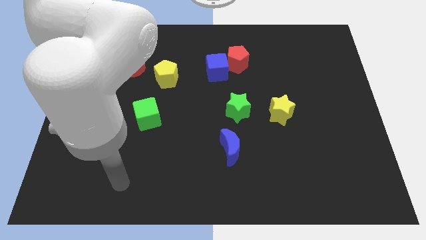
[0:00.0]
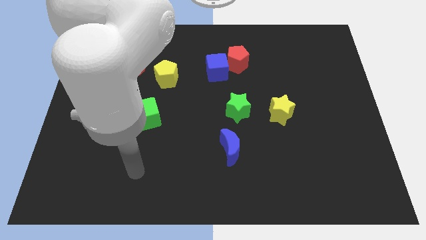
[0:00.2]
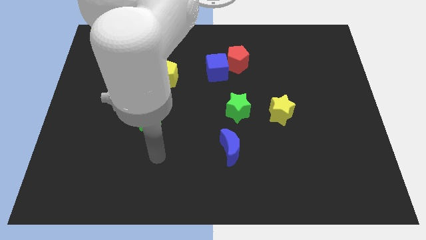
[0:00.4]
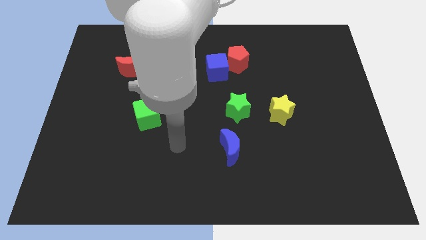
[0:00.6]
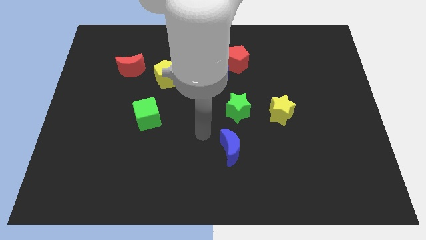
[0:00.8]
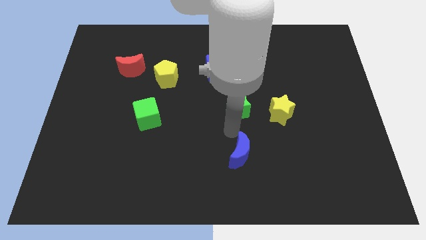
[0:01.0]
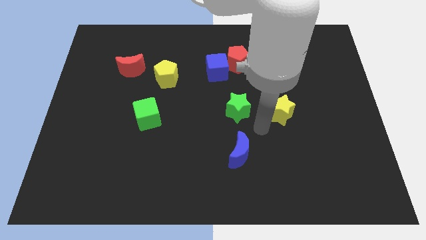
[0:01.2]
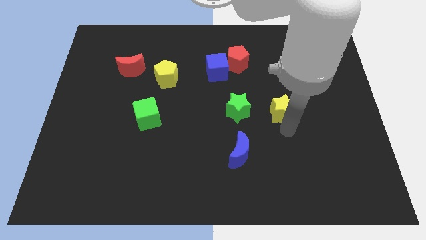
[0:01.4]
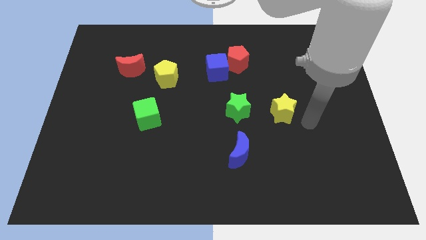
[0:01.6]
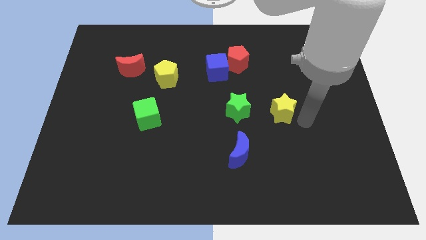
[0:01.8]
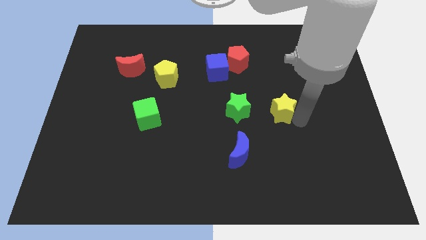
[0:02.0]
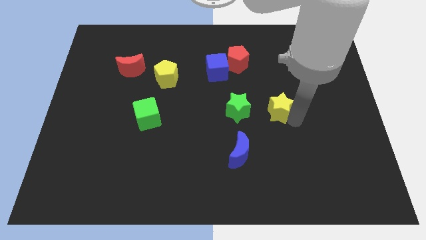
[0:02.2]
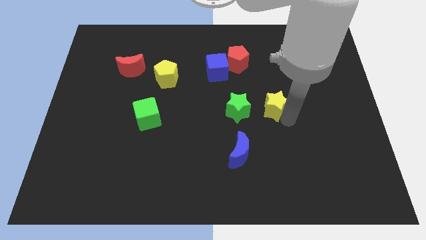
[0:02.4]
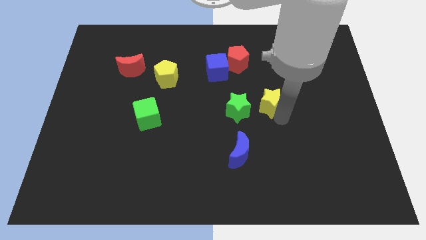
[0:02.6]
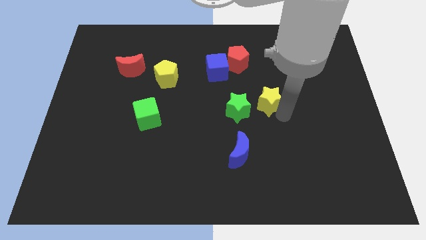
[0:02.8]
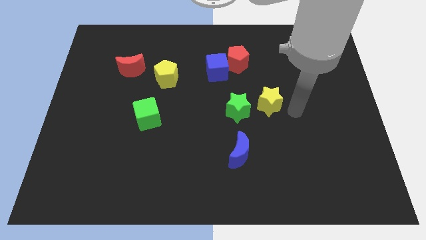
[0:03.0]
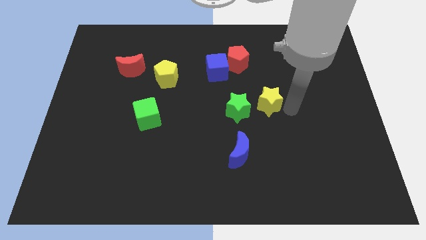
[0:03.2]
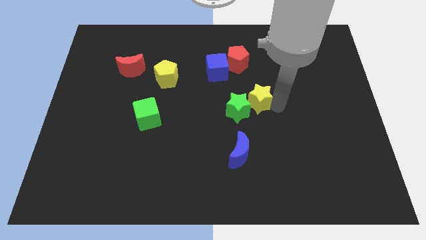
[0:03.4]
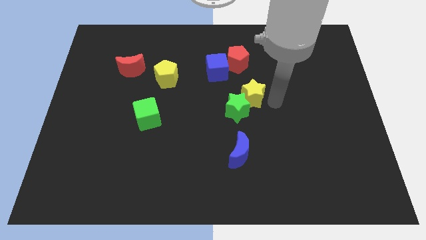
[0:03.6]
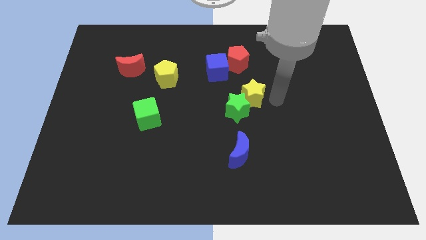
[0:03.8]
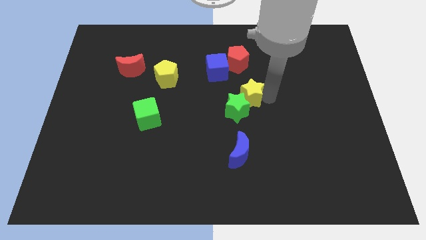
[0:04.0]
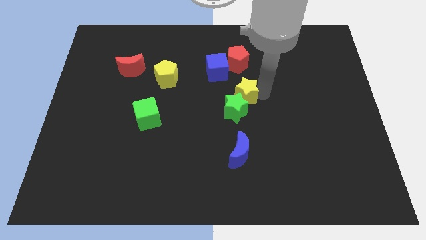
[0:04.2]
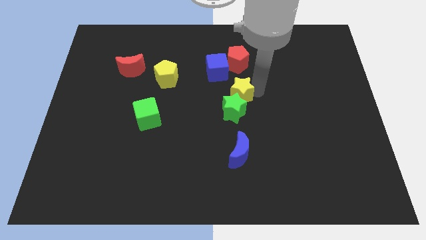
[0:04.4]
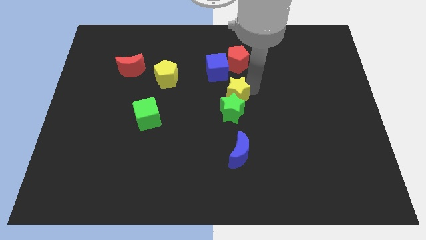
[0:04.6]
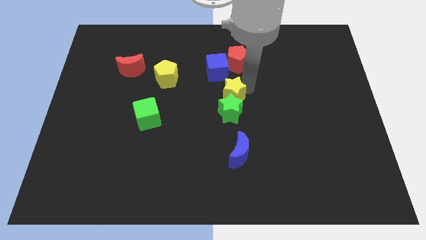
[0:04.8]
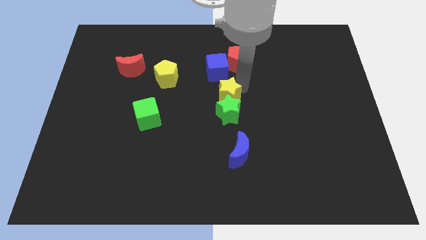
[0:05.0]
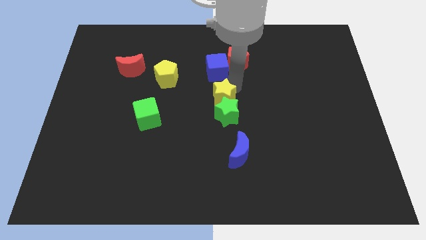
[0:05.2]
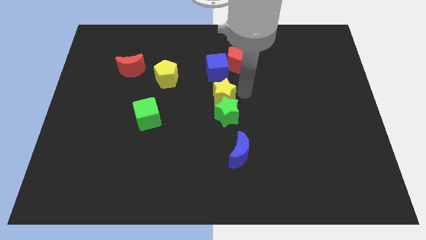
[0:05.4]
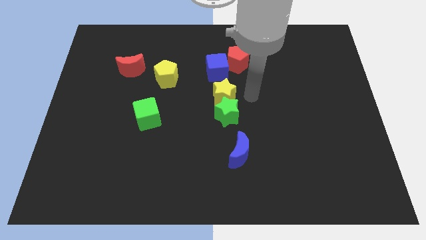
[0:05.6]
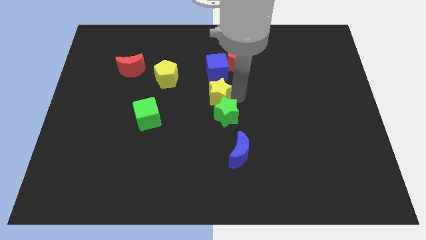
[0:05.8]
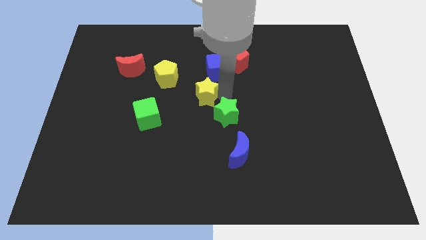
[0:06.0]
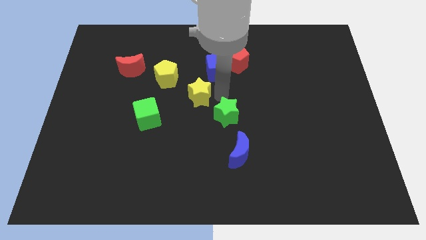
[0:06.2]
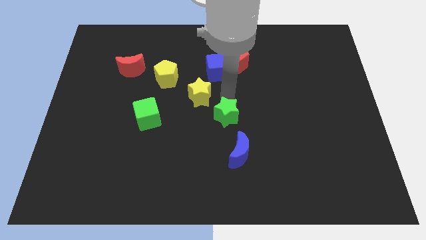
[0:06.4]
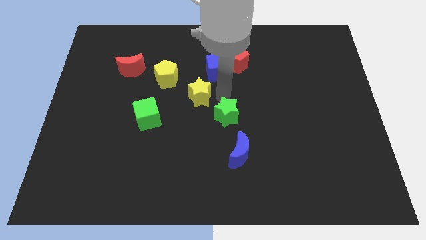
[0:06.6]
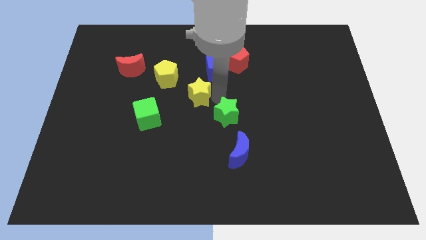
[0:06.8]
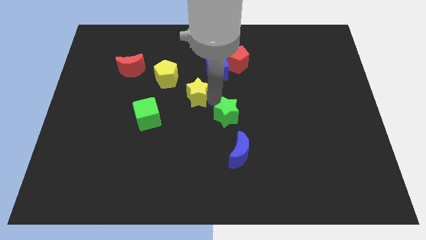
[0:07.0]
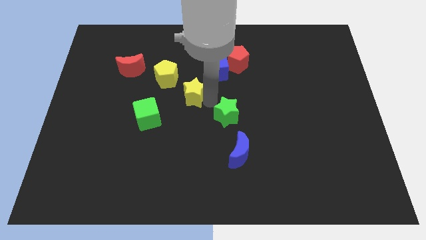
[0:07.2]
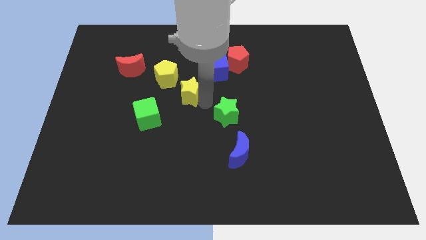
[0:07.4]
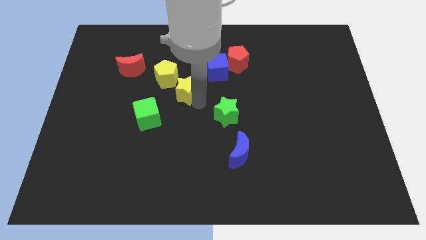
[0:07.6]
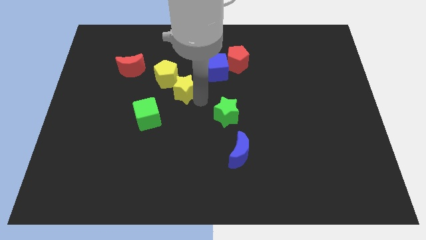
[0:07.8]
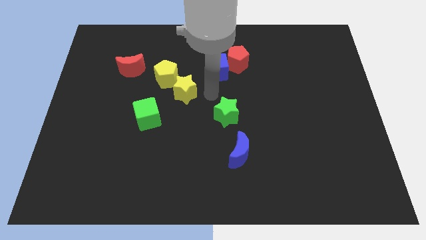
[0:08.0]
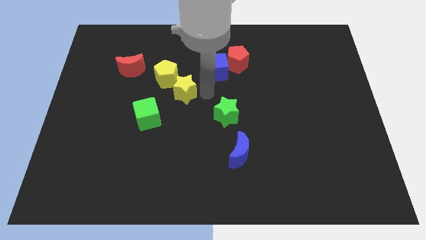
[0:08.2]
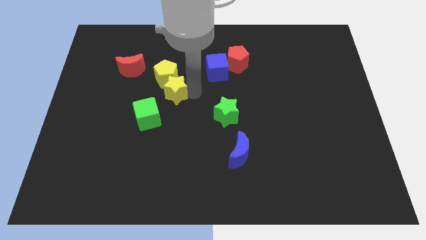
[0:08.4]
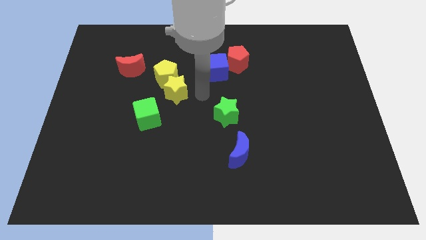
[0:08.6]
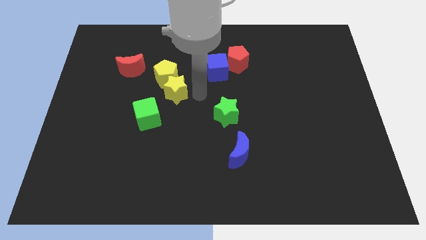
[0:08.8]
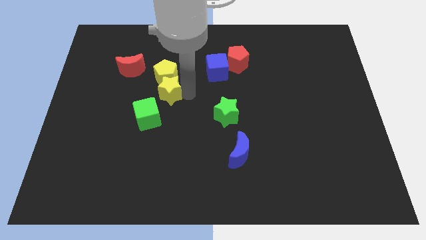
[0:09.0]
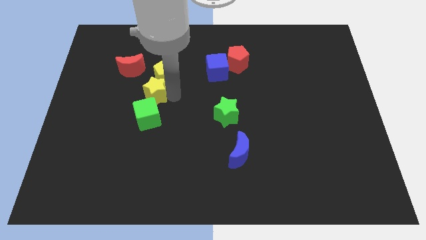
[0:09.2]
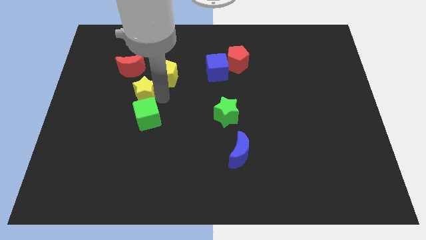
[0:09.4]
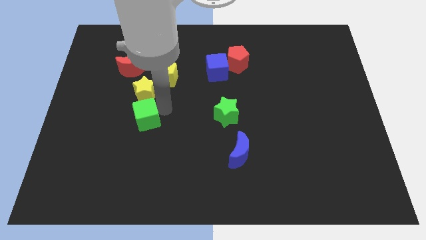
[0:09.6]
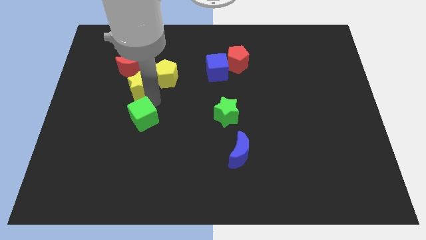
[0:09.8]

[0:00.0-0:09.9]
move the yellow star just left of the yellow pentagon

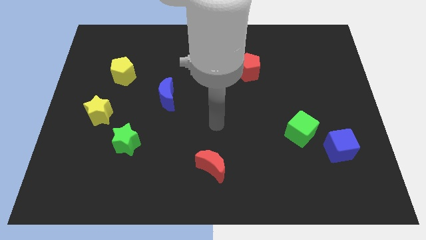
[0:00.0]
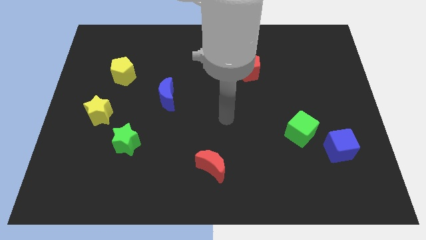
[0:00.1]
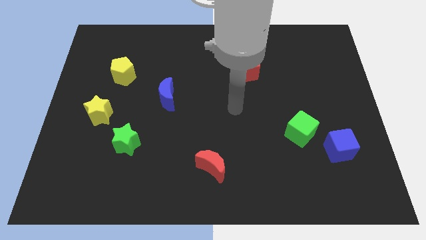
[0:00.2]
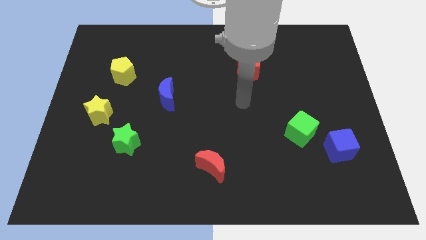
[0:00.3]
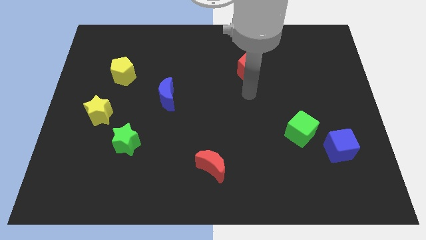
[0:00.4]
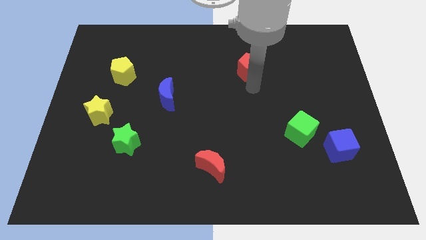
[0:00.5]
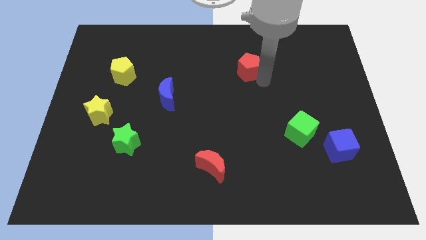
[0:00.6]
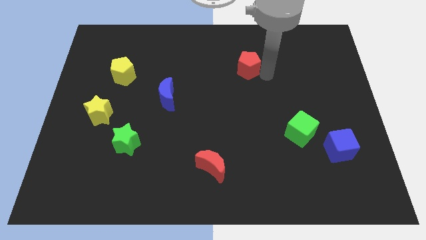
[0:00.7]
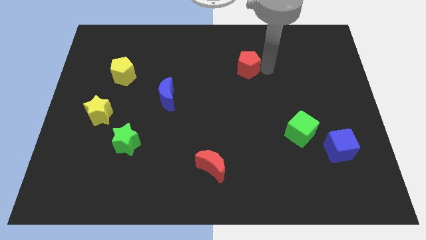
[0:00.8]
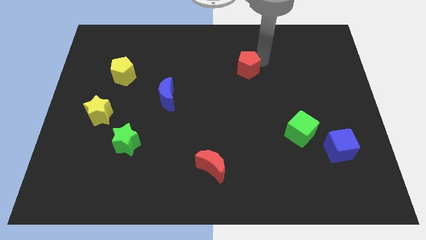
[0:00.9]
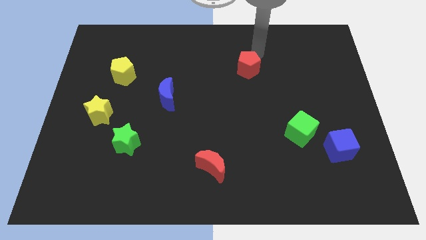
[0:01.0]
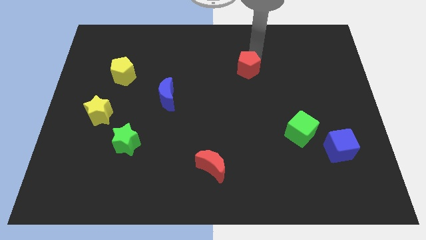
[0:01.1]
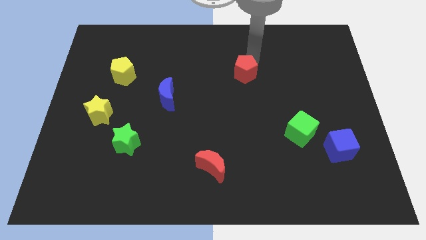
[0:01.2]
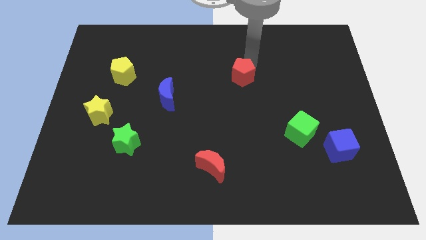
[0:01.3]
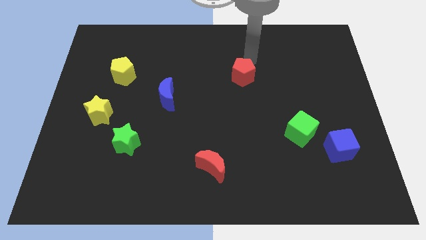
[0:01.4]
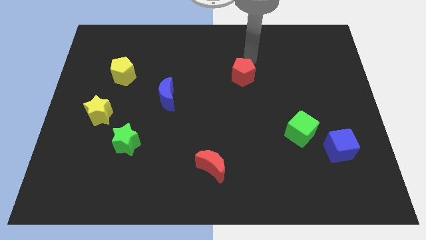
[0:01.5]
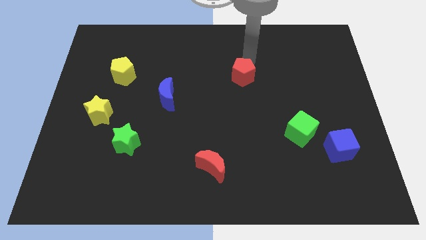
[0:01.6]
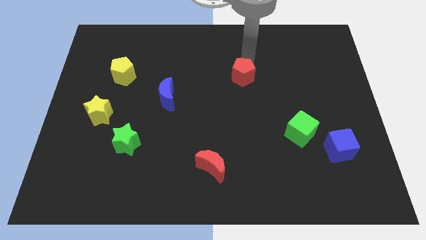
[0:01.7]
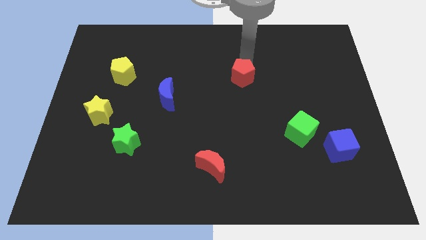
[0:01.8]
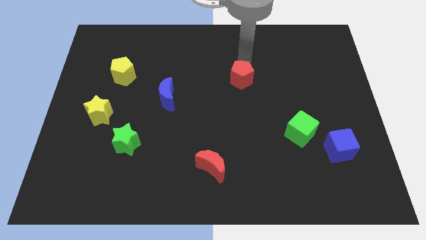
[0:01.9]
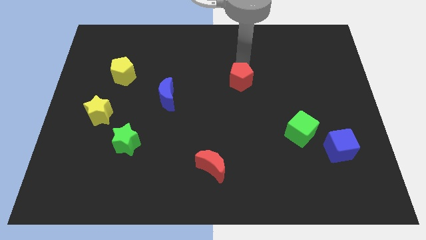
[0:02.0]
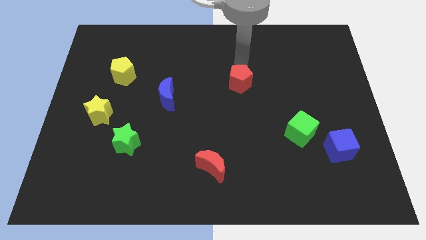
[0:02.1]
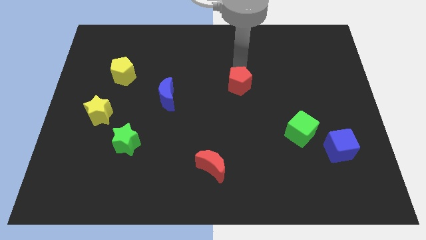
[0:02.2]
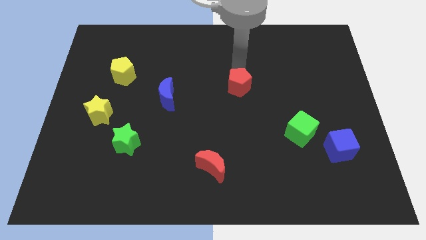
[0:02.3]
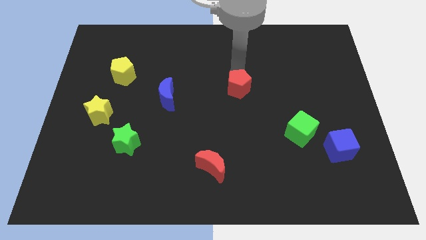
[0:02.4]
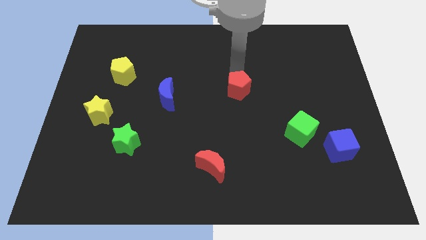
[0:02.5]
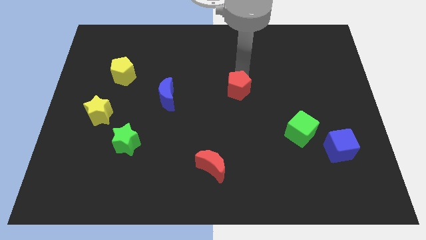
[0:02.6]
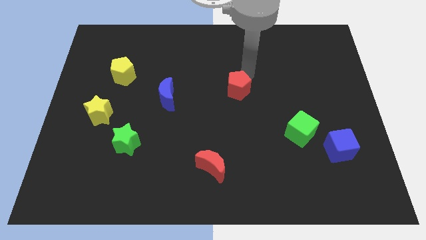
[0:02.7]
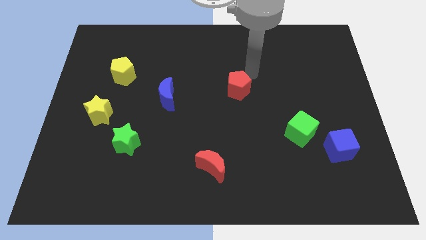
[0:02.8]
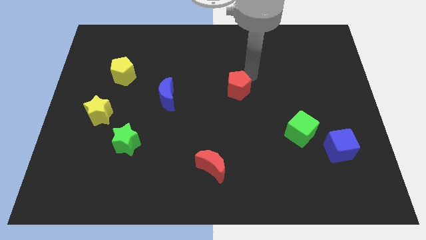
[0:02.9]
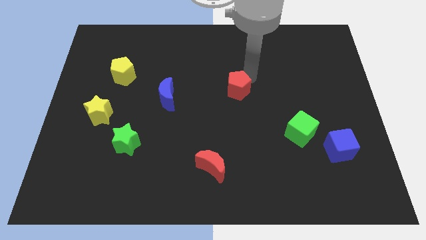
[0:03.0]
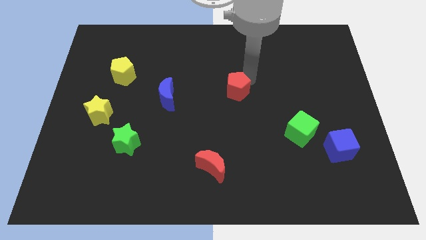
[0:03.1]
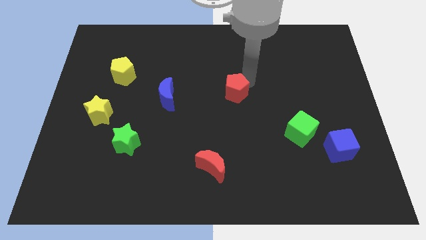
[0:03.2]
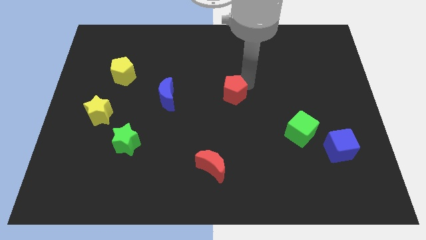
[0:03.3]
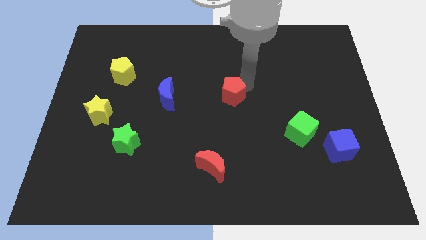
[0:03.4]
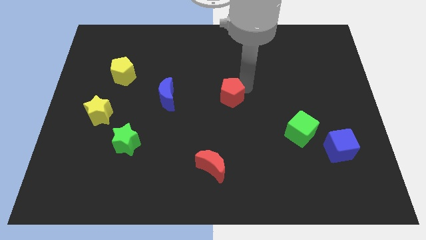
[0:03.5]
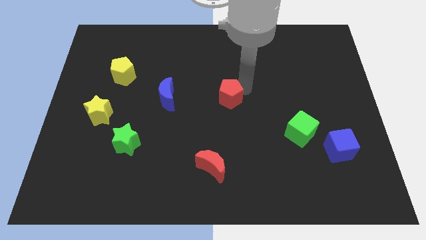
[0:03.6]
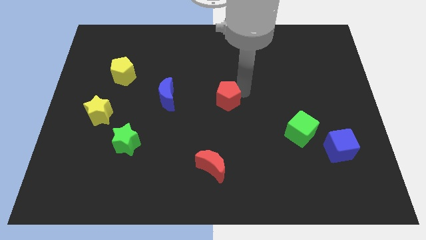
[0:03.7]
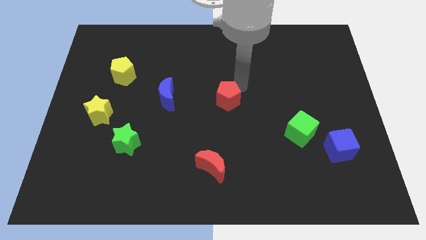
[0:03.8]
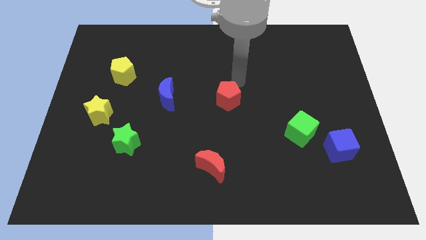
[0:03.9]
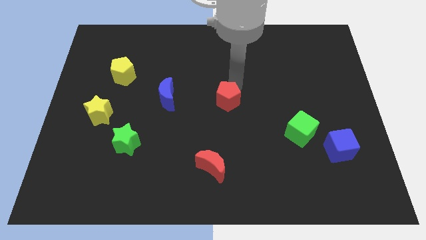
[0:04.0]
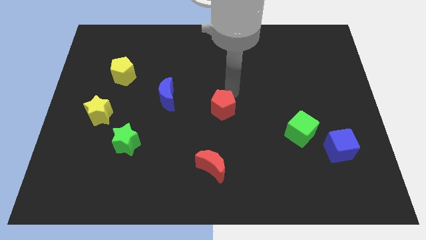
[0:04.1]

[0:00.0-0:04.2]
move the red pentagon to the top side of the red moon
